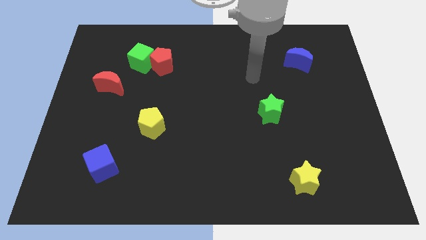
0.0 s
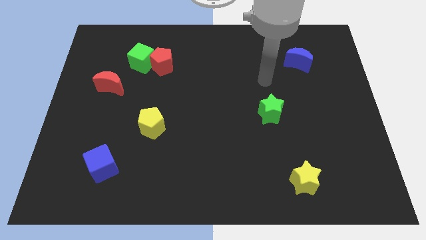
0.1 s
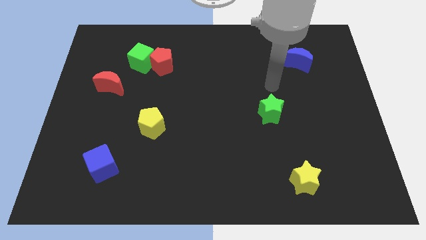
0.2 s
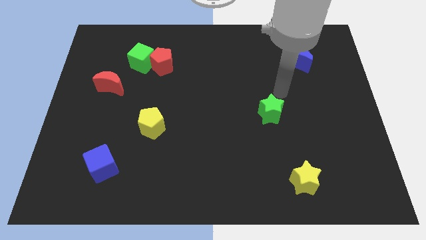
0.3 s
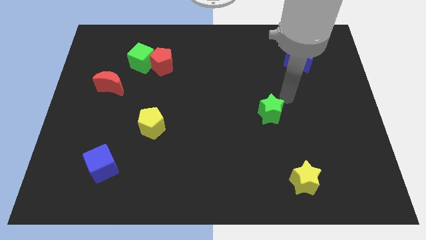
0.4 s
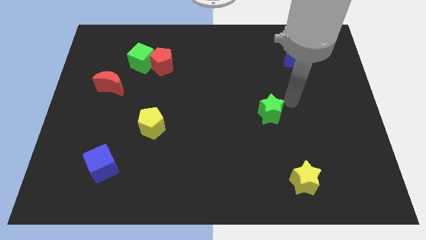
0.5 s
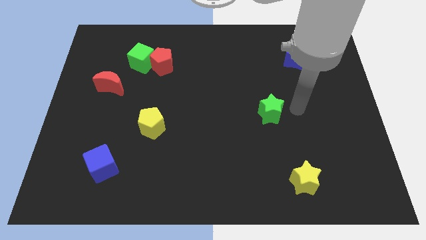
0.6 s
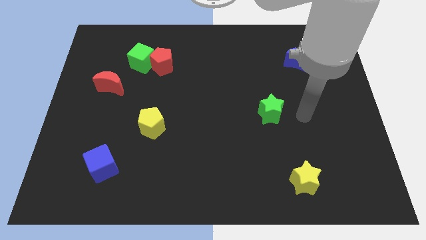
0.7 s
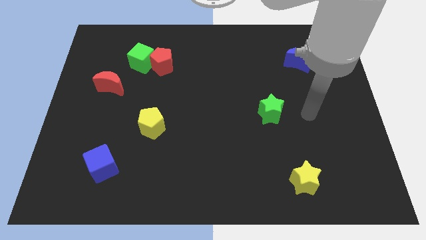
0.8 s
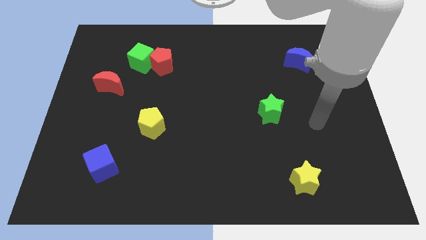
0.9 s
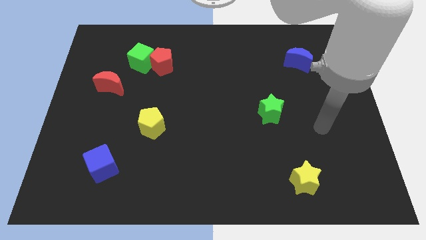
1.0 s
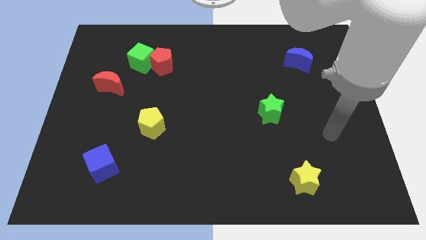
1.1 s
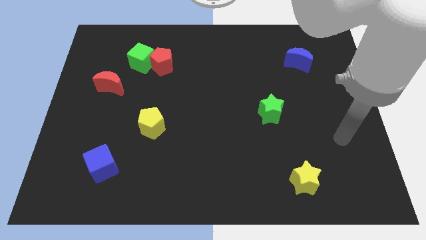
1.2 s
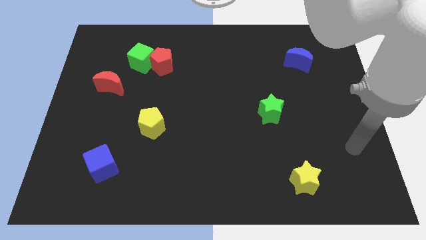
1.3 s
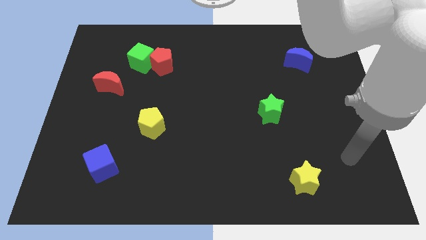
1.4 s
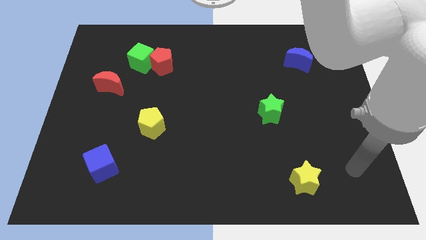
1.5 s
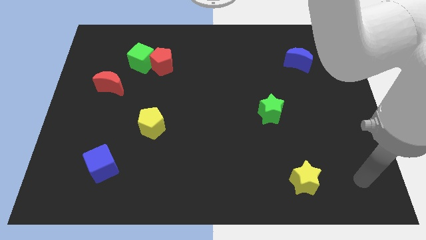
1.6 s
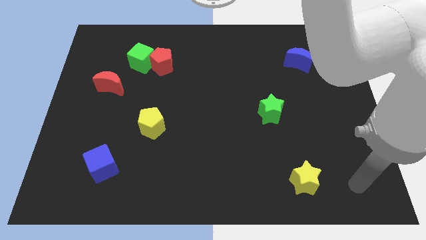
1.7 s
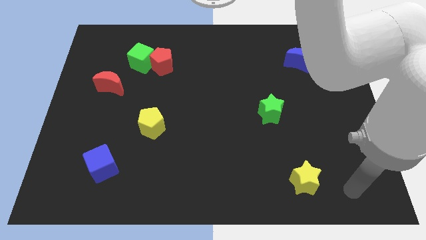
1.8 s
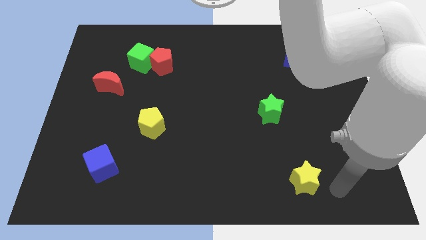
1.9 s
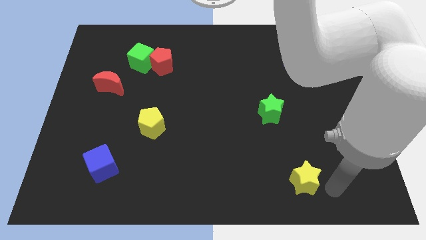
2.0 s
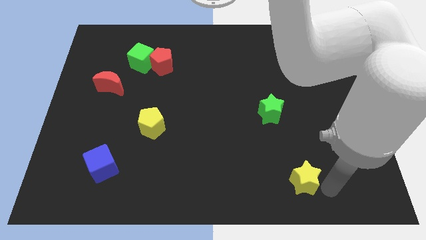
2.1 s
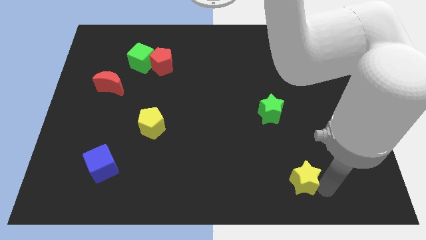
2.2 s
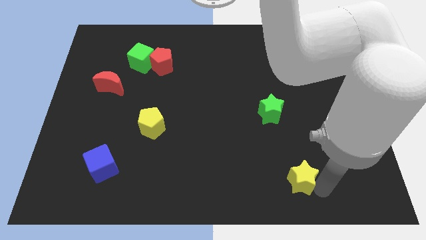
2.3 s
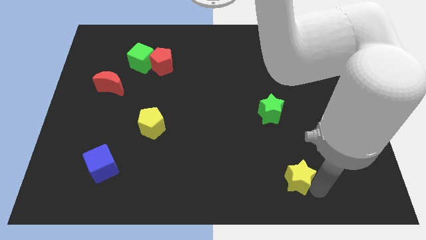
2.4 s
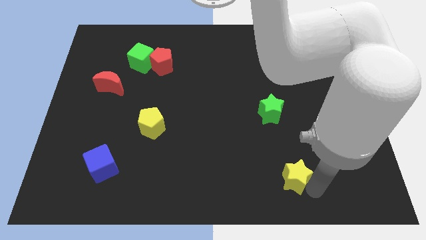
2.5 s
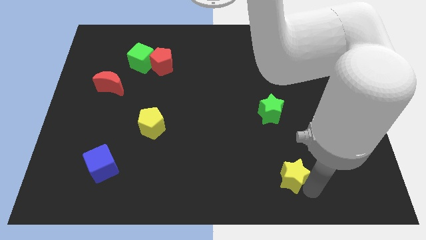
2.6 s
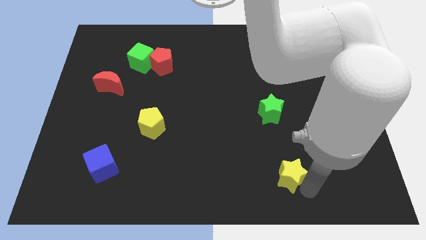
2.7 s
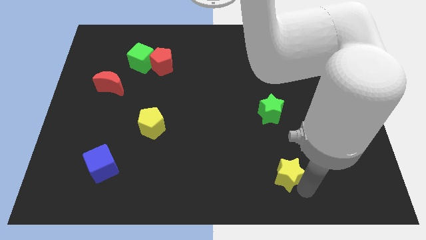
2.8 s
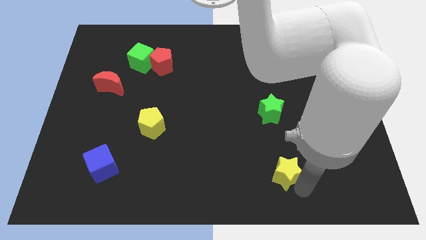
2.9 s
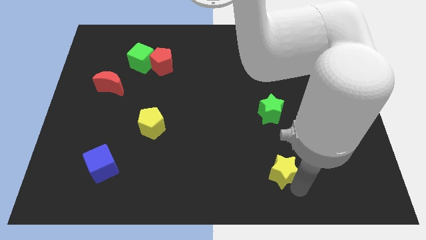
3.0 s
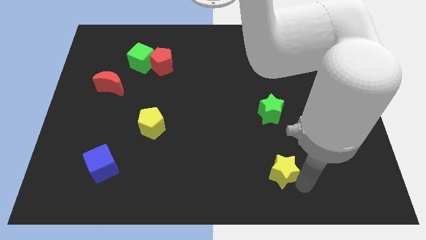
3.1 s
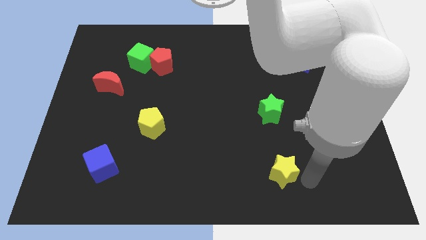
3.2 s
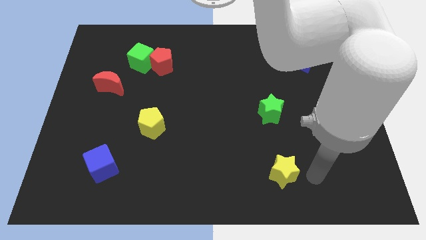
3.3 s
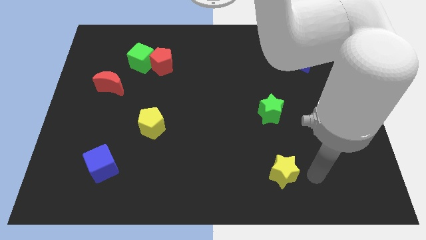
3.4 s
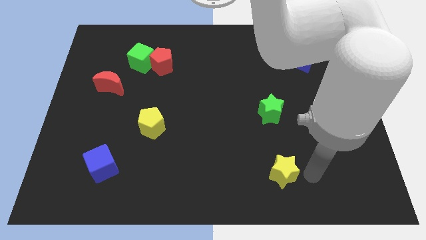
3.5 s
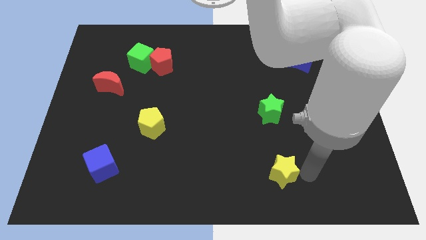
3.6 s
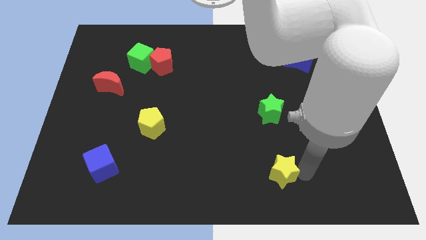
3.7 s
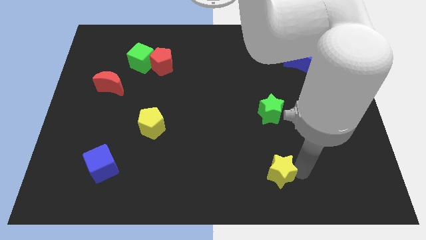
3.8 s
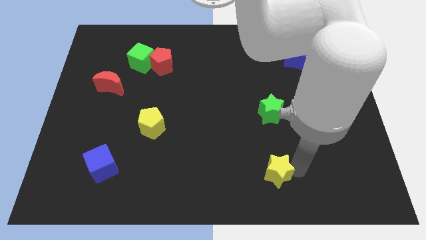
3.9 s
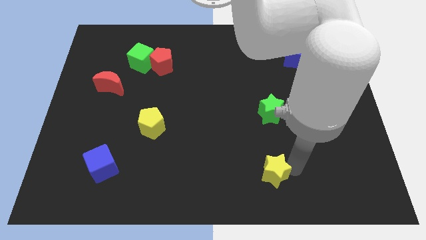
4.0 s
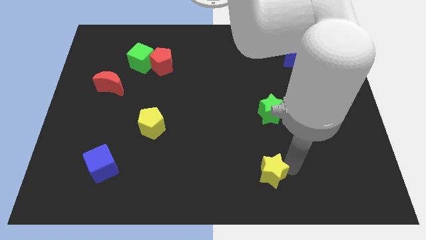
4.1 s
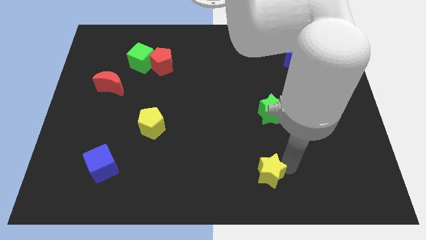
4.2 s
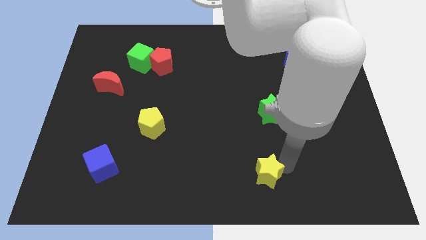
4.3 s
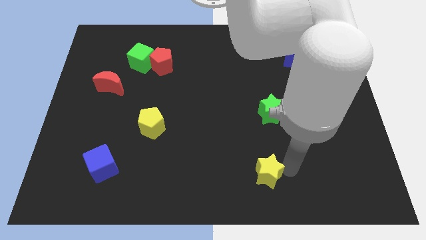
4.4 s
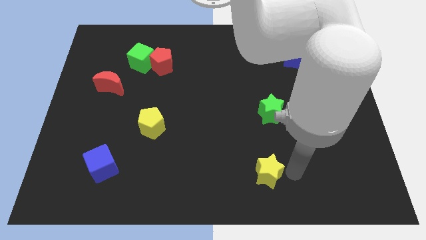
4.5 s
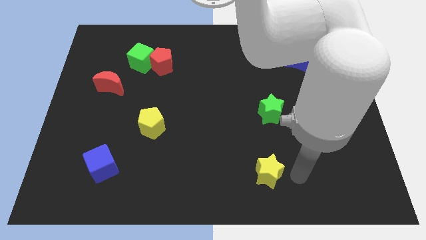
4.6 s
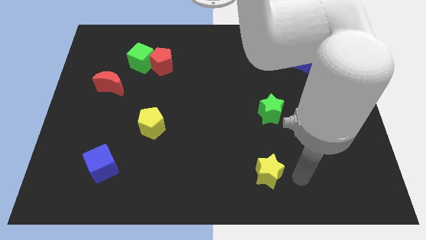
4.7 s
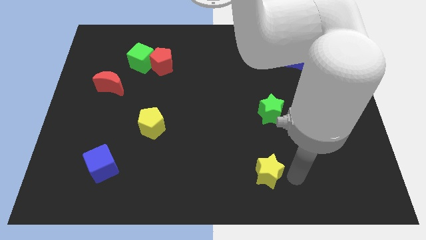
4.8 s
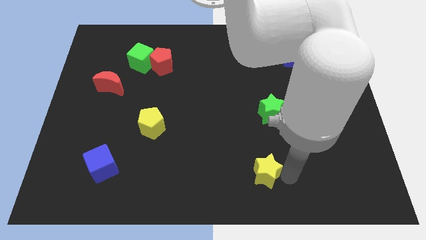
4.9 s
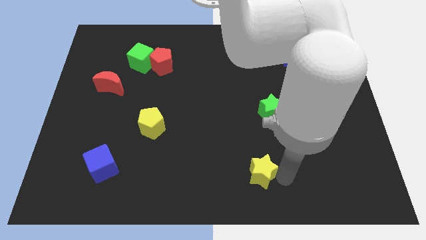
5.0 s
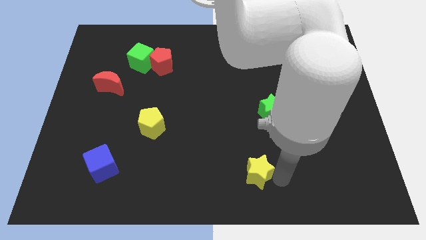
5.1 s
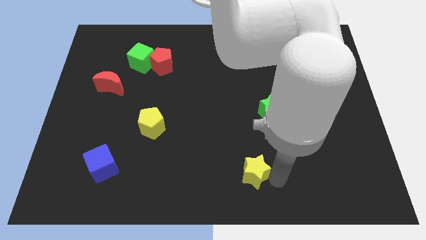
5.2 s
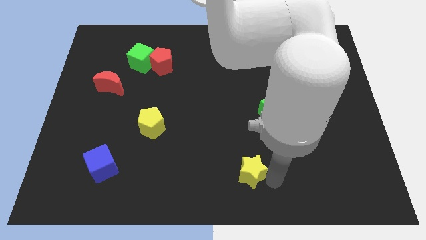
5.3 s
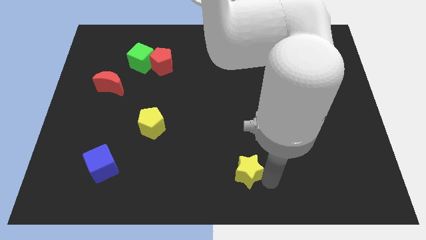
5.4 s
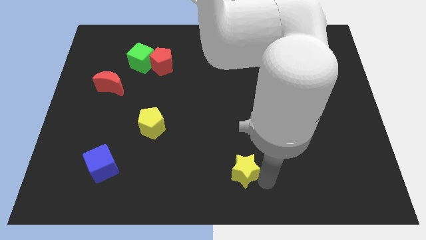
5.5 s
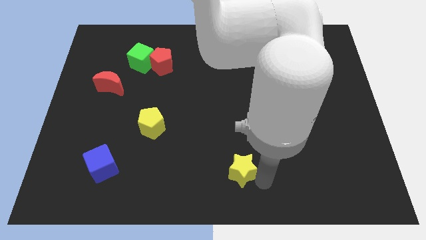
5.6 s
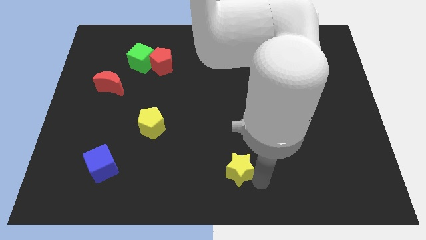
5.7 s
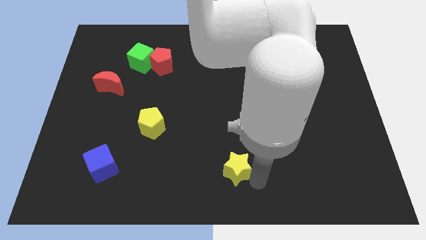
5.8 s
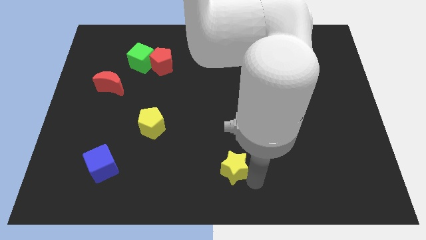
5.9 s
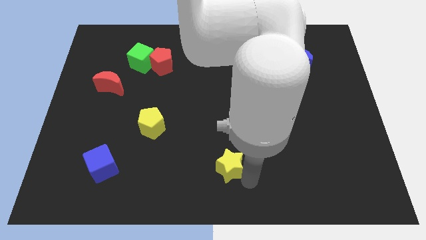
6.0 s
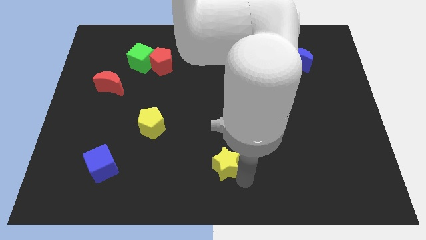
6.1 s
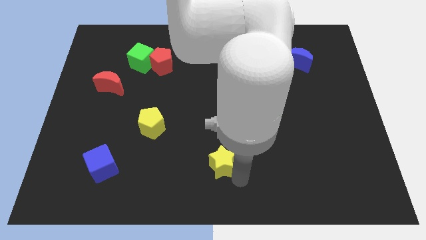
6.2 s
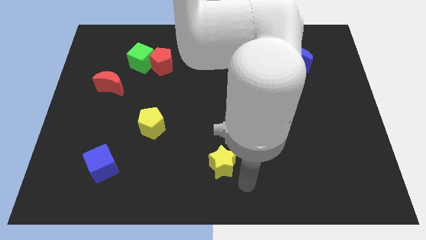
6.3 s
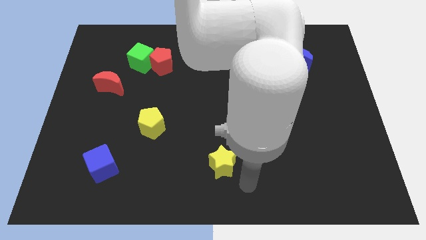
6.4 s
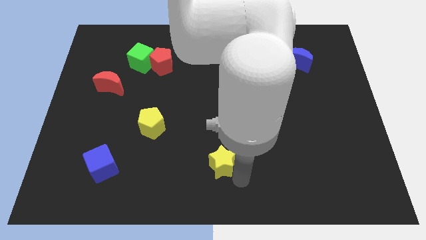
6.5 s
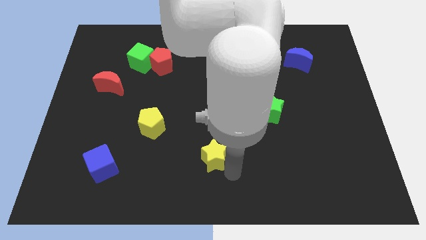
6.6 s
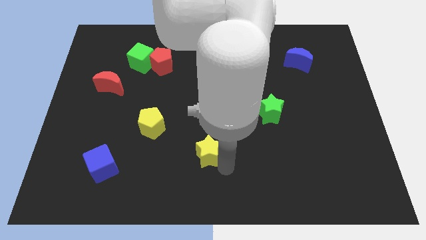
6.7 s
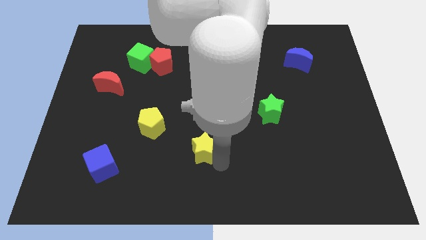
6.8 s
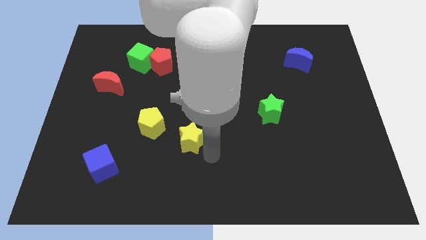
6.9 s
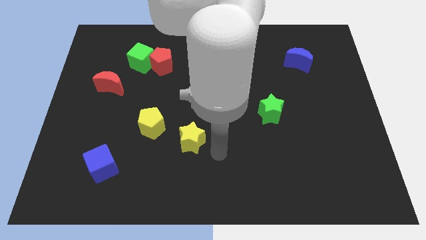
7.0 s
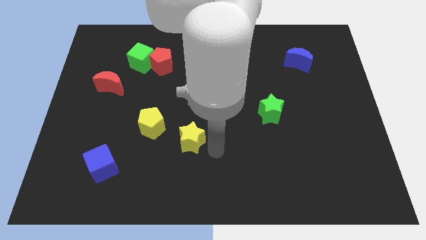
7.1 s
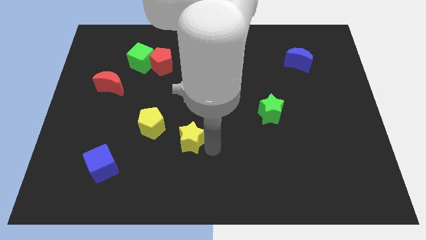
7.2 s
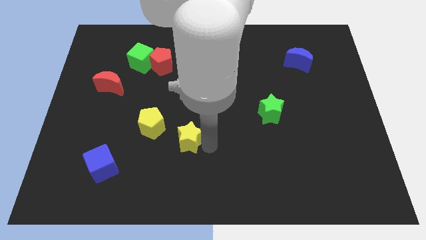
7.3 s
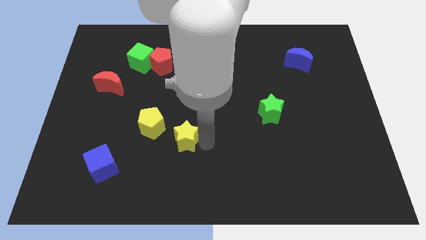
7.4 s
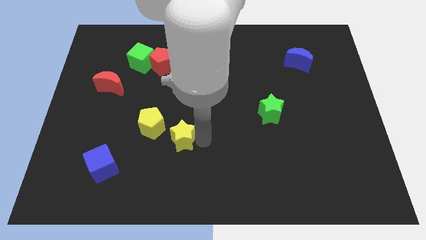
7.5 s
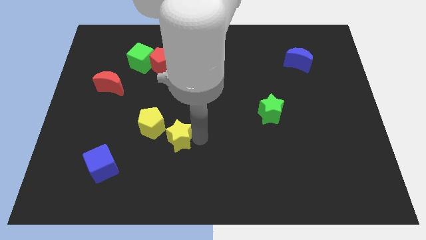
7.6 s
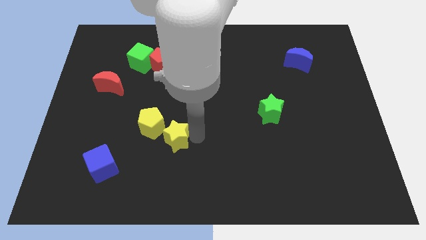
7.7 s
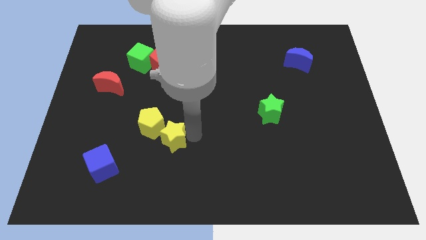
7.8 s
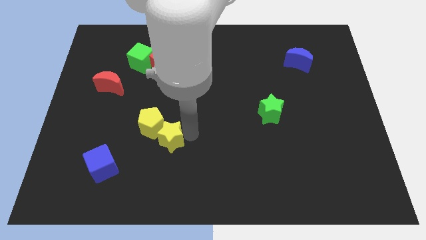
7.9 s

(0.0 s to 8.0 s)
slide the yellow star to the yellow pentagon
